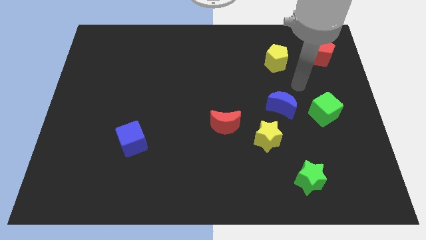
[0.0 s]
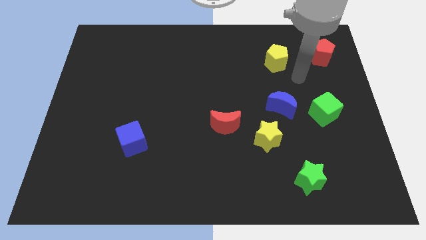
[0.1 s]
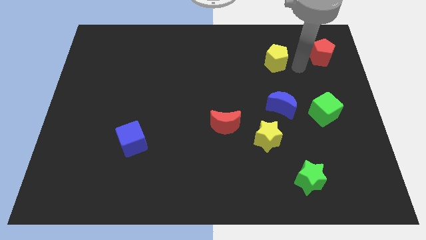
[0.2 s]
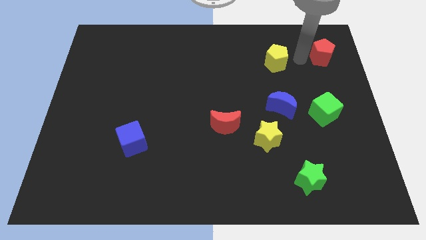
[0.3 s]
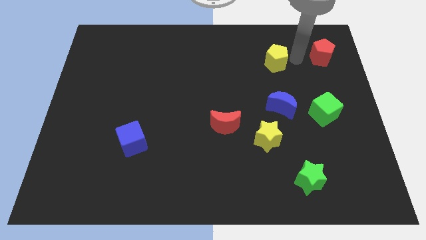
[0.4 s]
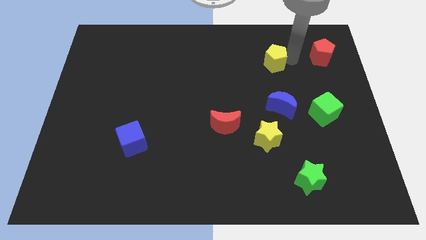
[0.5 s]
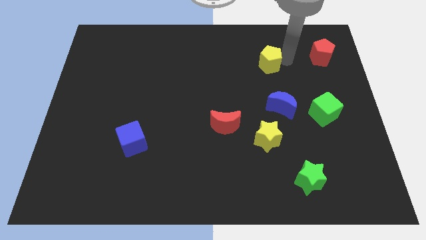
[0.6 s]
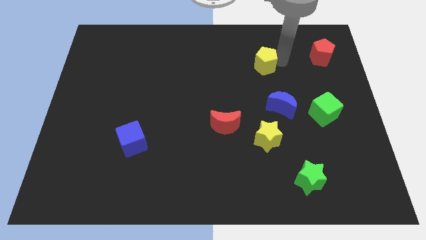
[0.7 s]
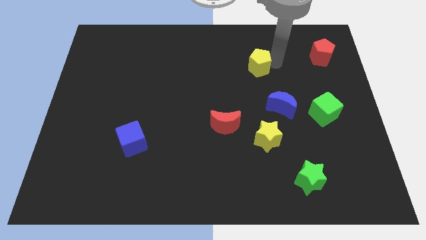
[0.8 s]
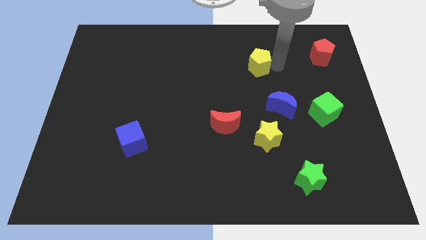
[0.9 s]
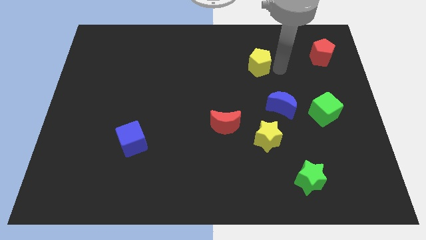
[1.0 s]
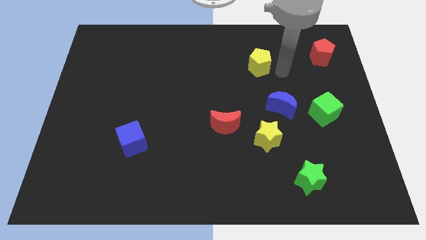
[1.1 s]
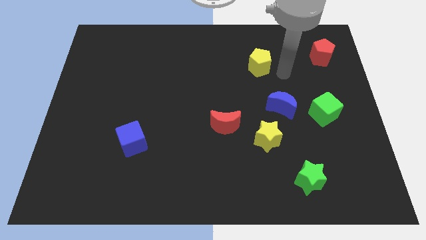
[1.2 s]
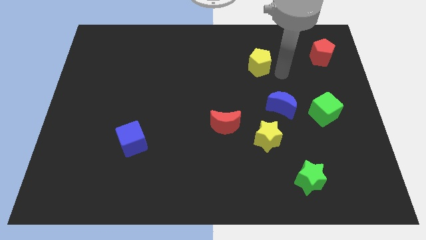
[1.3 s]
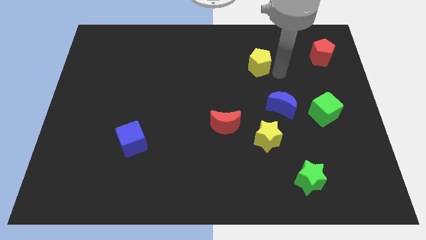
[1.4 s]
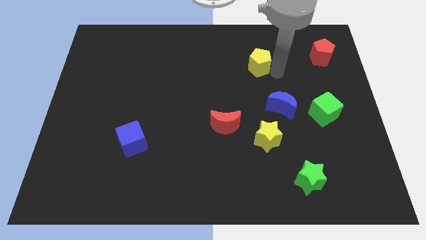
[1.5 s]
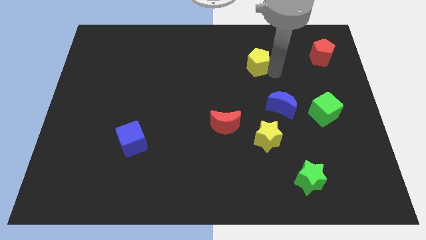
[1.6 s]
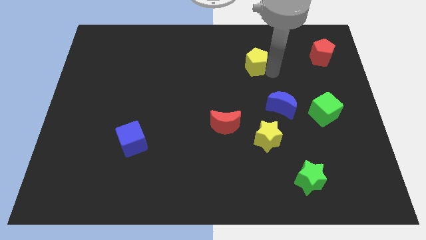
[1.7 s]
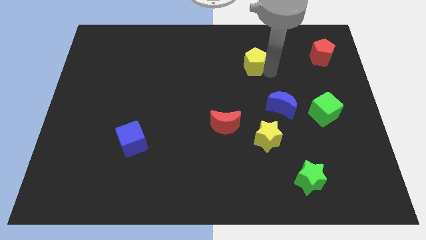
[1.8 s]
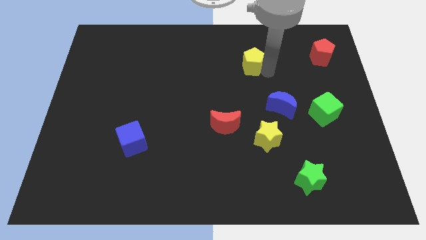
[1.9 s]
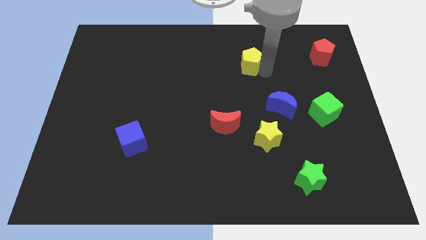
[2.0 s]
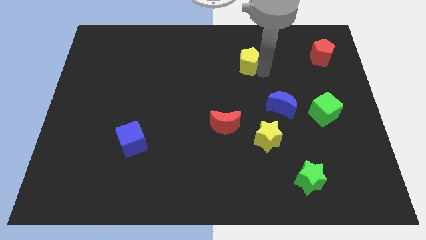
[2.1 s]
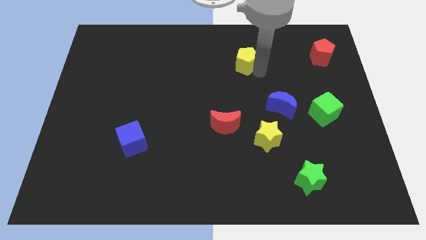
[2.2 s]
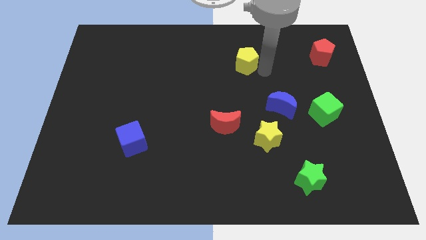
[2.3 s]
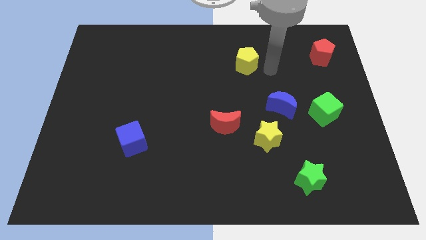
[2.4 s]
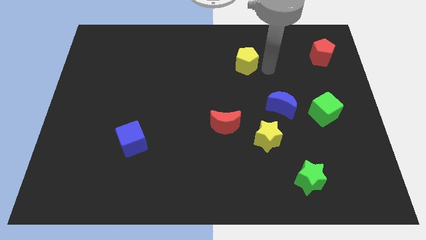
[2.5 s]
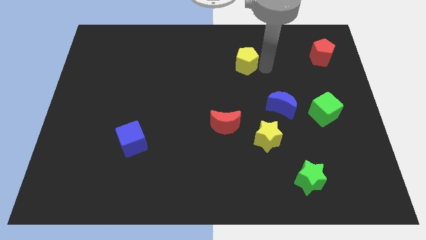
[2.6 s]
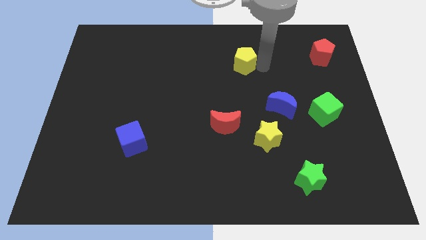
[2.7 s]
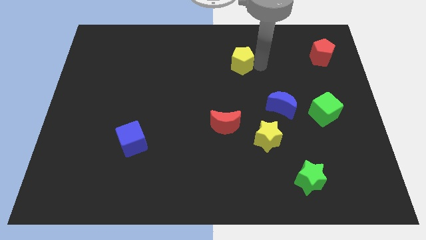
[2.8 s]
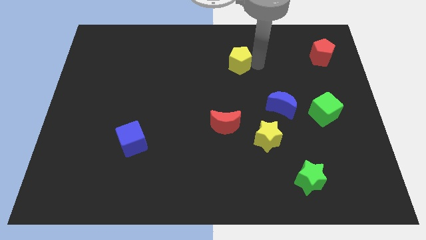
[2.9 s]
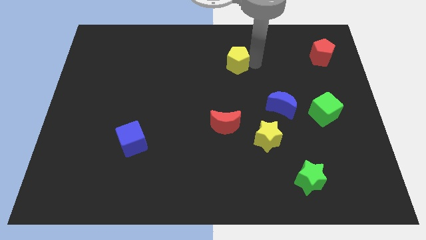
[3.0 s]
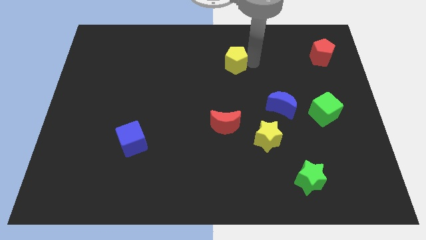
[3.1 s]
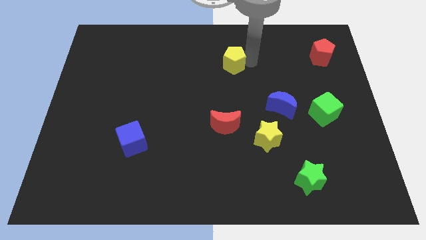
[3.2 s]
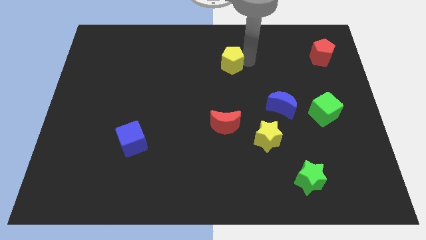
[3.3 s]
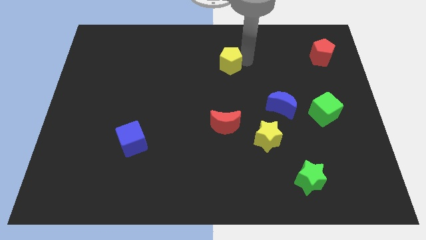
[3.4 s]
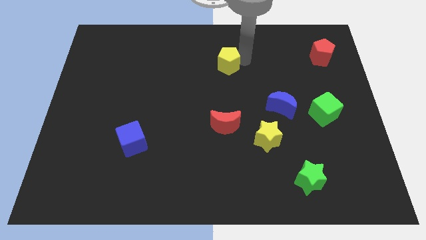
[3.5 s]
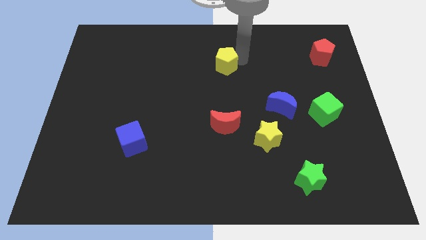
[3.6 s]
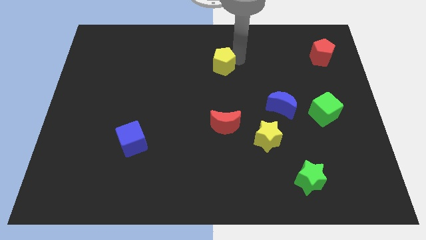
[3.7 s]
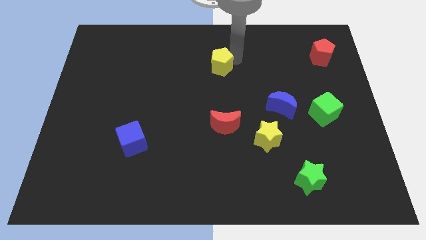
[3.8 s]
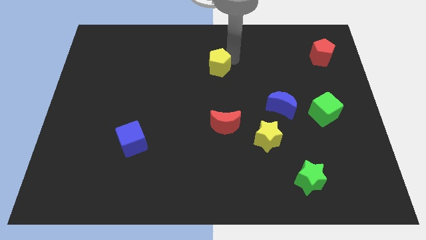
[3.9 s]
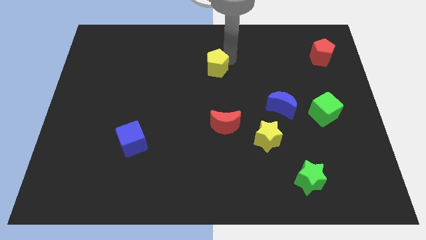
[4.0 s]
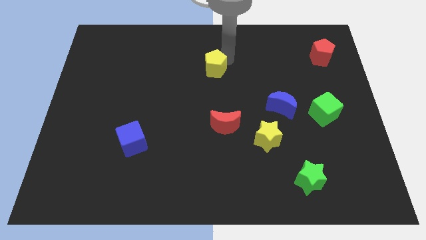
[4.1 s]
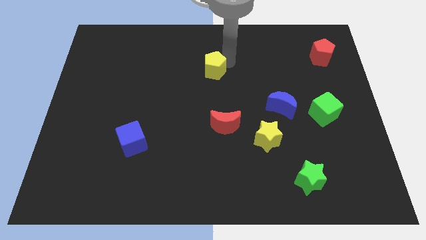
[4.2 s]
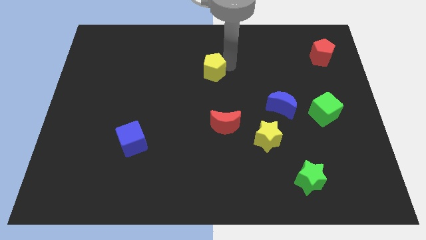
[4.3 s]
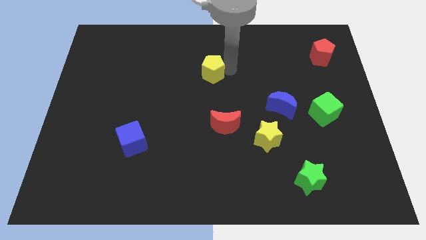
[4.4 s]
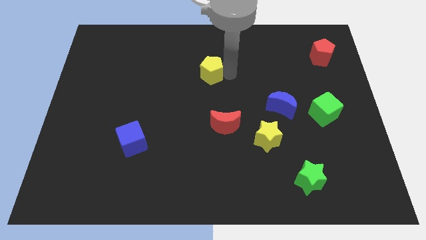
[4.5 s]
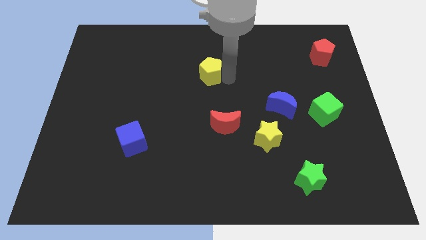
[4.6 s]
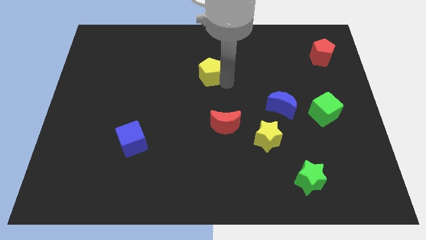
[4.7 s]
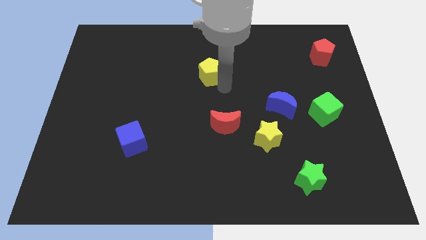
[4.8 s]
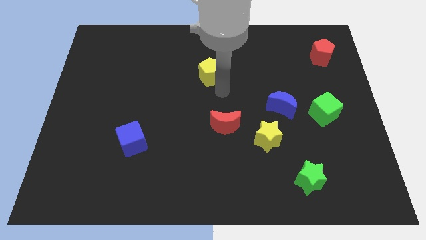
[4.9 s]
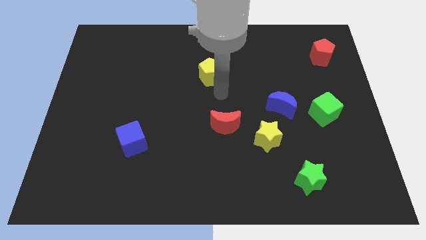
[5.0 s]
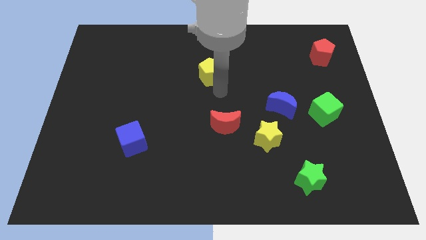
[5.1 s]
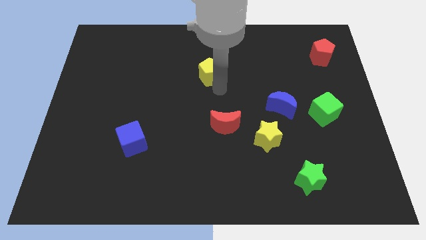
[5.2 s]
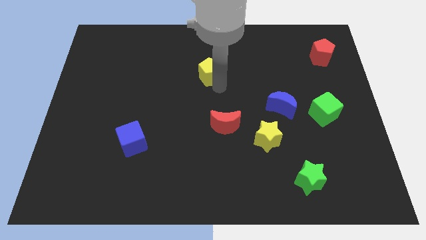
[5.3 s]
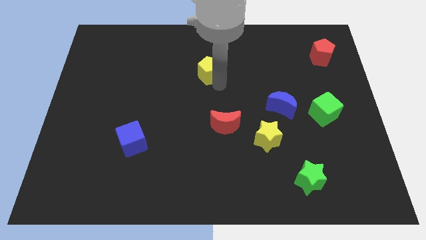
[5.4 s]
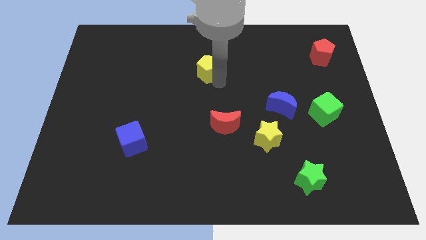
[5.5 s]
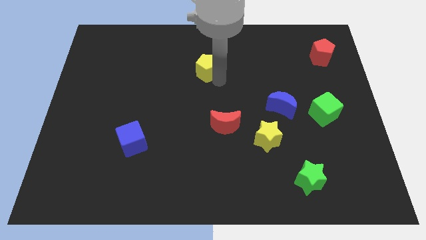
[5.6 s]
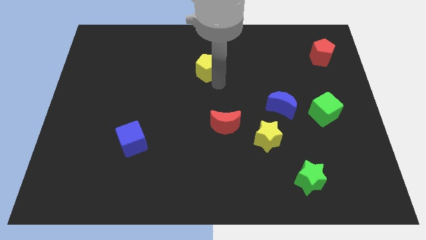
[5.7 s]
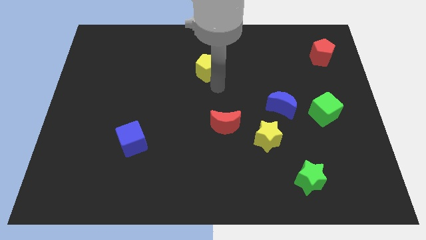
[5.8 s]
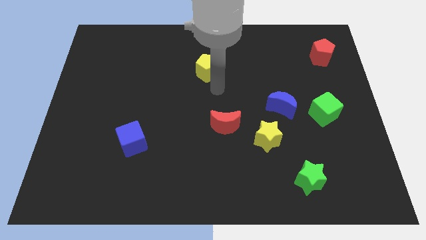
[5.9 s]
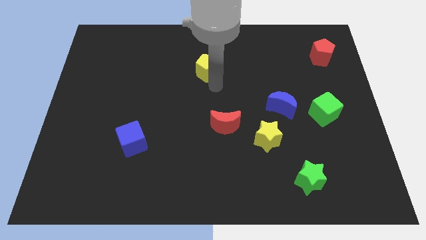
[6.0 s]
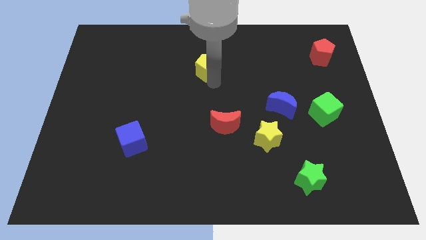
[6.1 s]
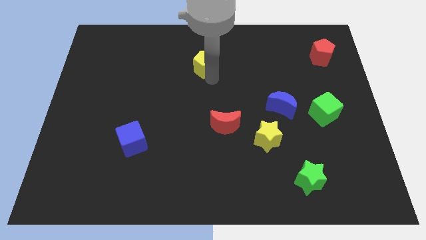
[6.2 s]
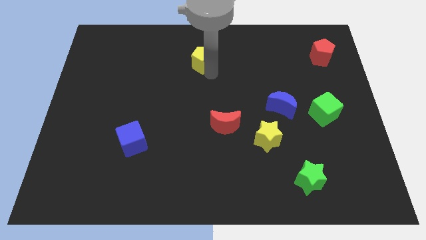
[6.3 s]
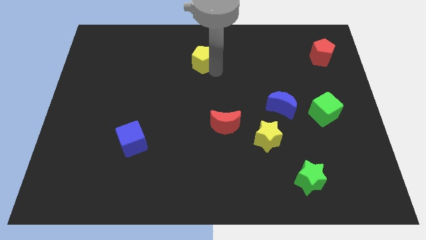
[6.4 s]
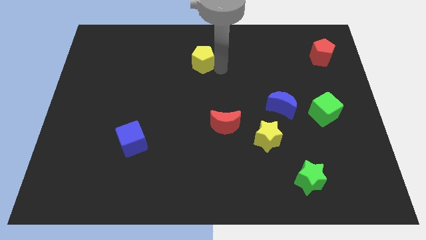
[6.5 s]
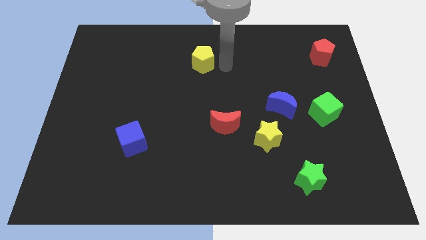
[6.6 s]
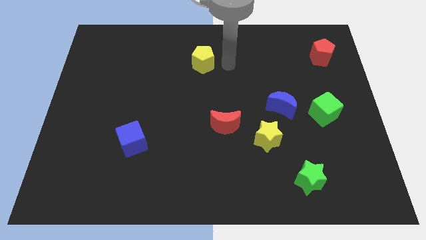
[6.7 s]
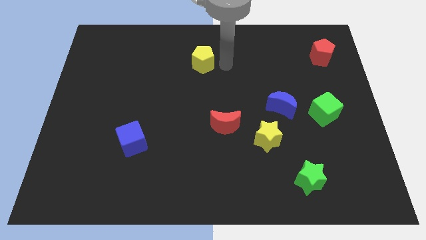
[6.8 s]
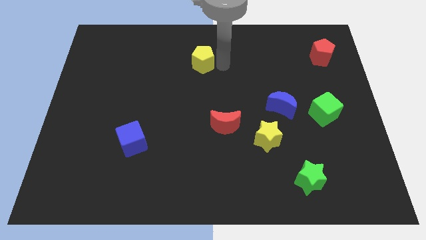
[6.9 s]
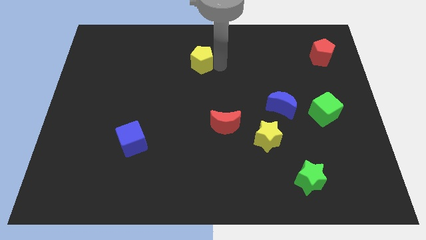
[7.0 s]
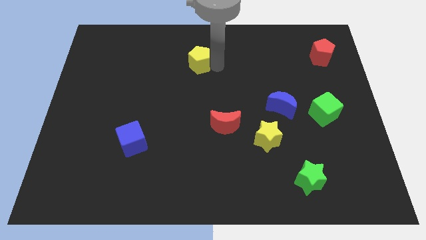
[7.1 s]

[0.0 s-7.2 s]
slide the yellow pentagon left

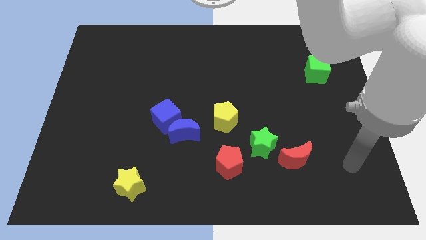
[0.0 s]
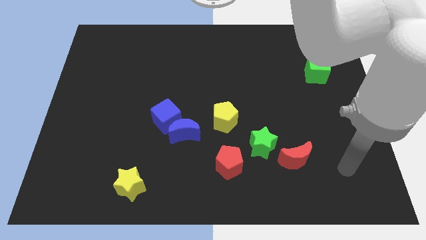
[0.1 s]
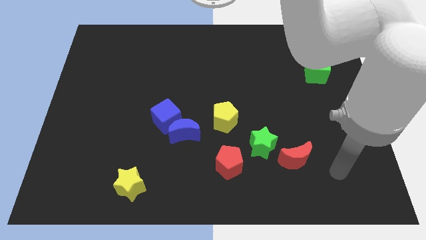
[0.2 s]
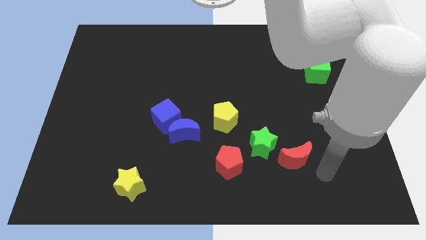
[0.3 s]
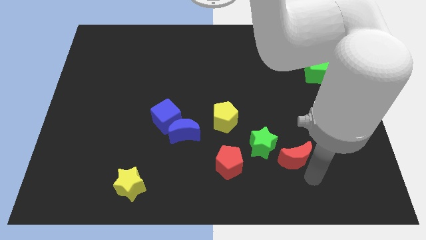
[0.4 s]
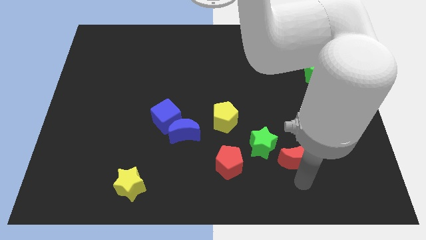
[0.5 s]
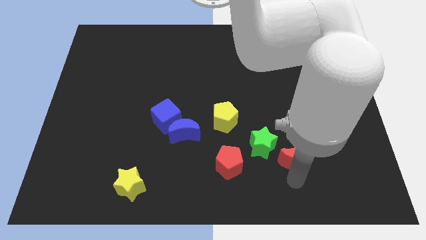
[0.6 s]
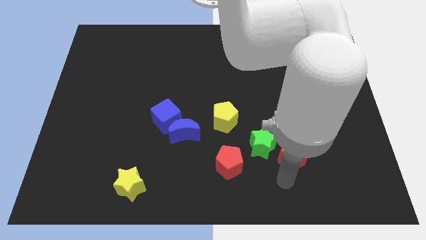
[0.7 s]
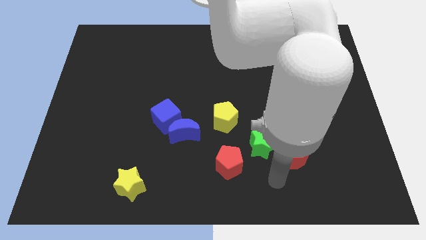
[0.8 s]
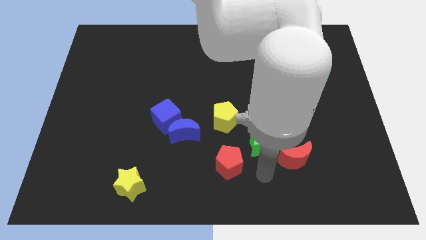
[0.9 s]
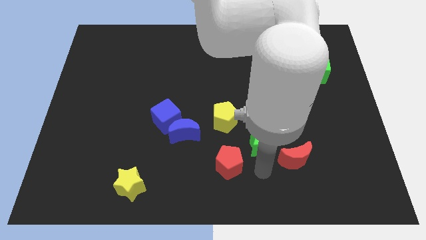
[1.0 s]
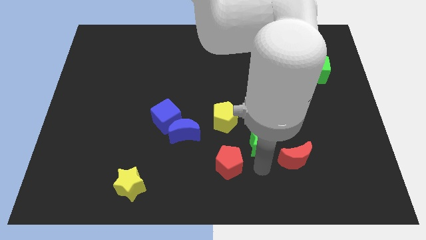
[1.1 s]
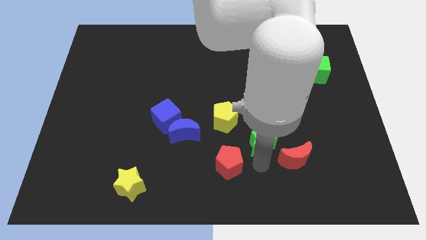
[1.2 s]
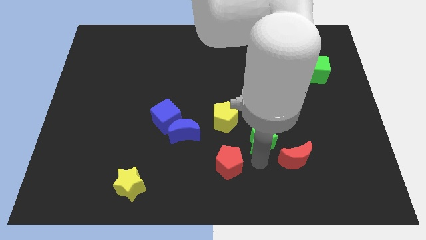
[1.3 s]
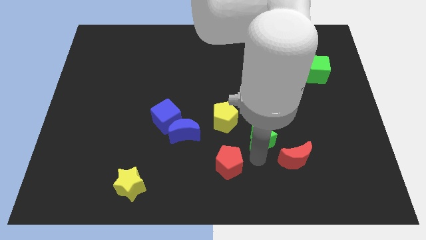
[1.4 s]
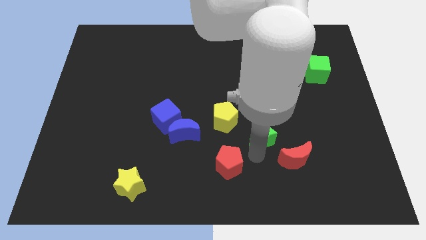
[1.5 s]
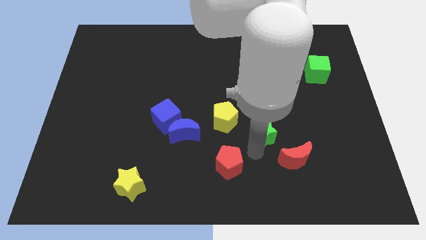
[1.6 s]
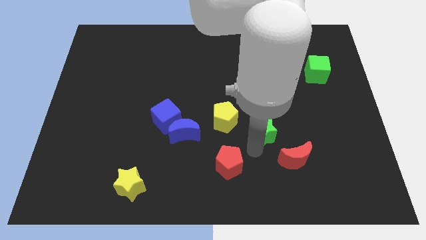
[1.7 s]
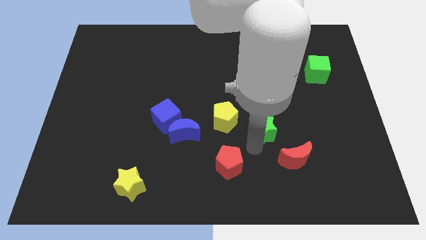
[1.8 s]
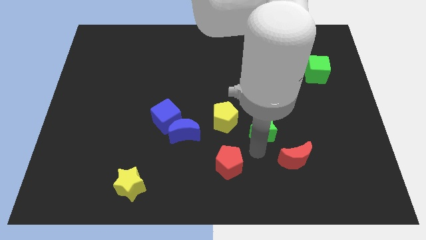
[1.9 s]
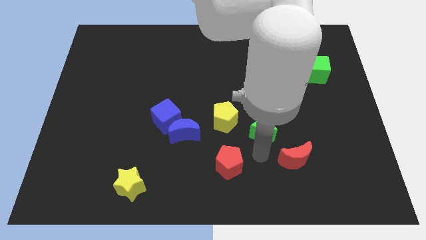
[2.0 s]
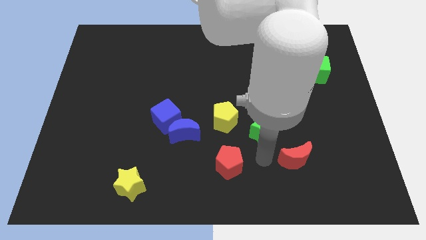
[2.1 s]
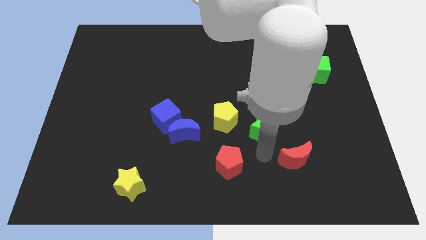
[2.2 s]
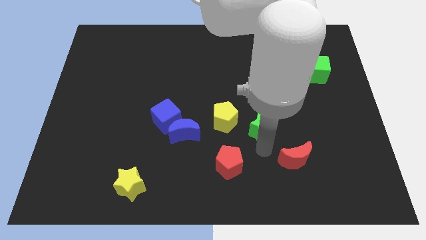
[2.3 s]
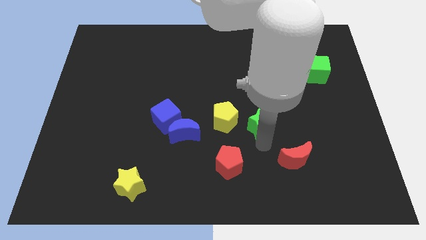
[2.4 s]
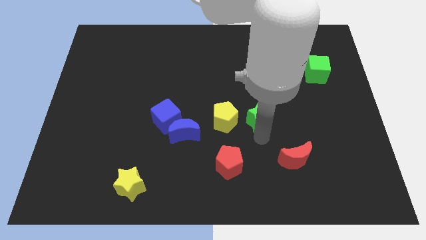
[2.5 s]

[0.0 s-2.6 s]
slide the green star upwards a little bit
